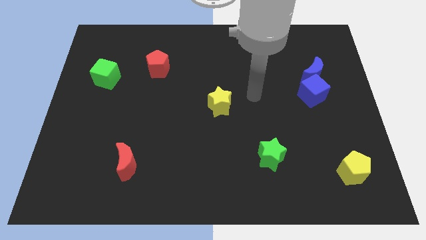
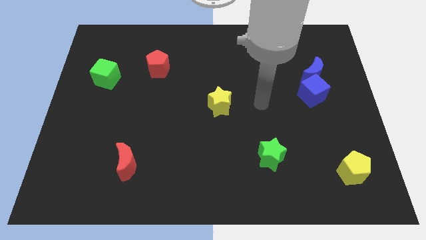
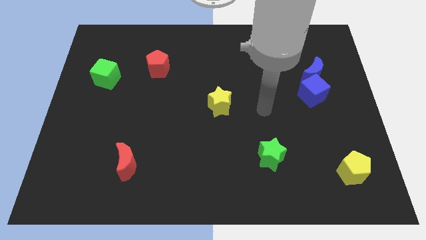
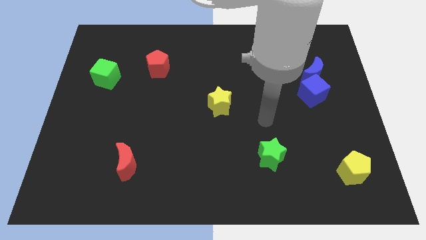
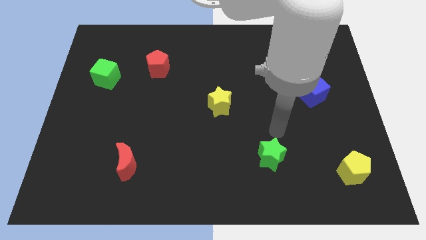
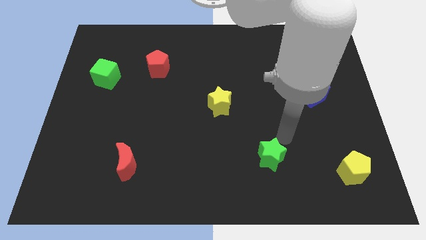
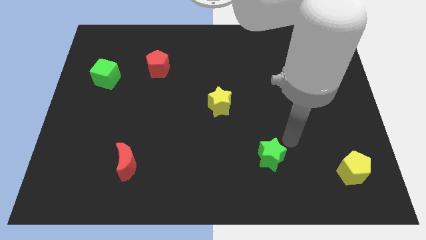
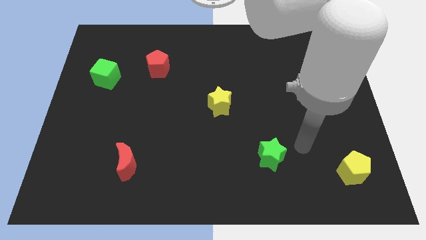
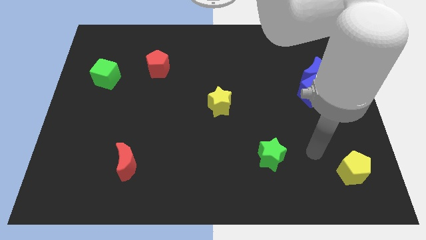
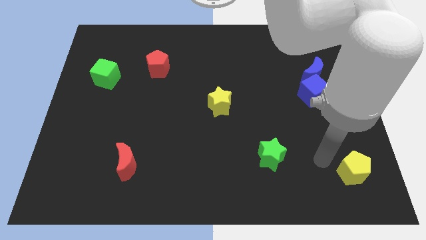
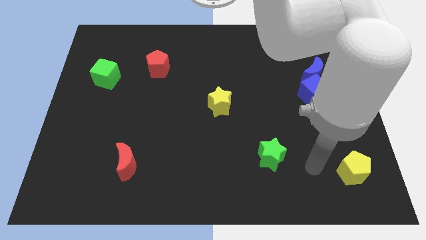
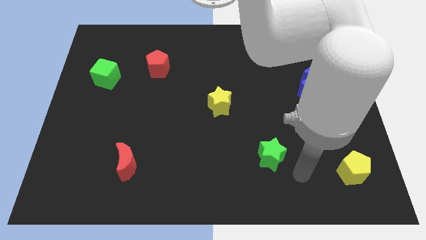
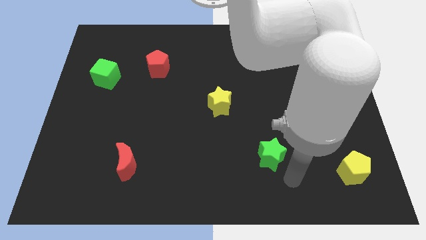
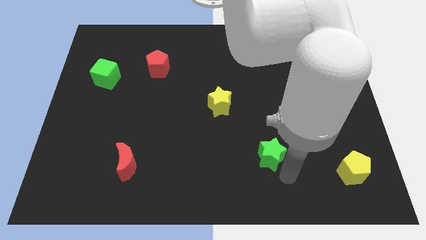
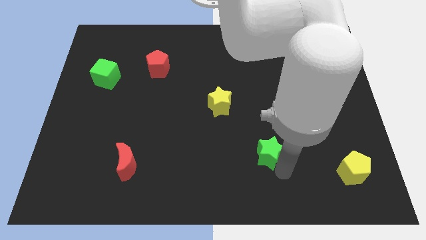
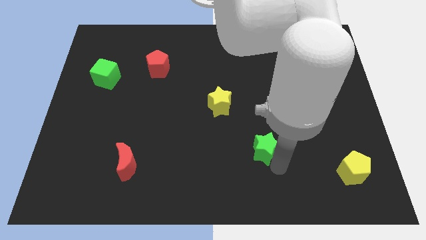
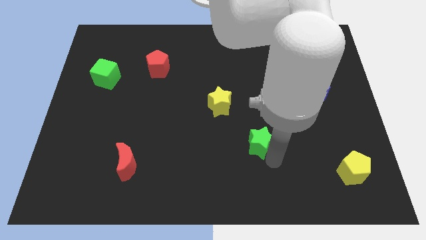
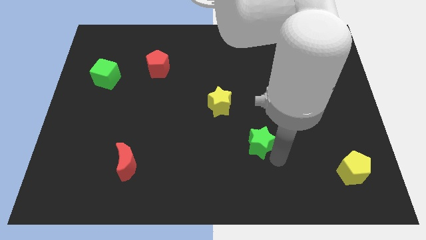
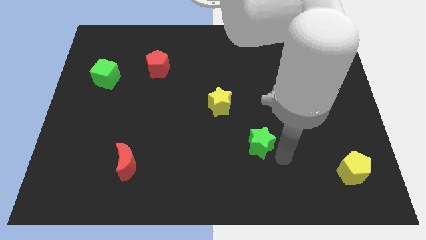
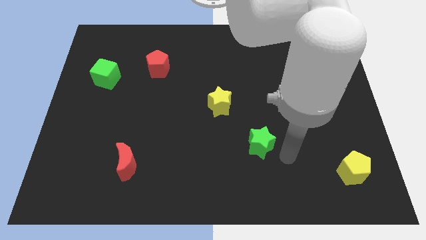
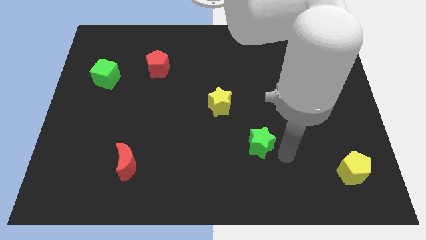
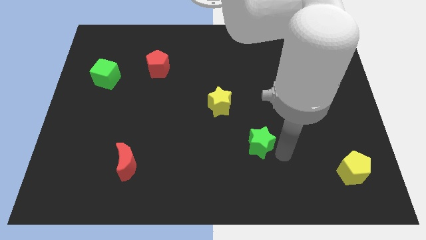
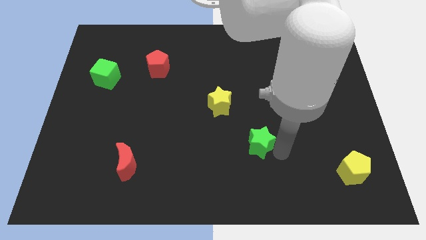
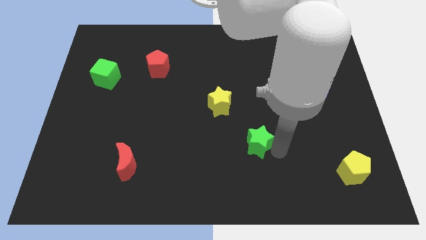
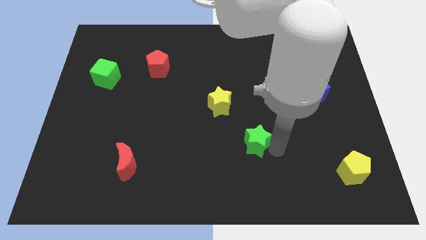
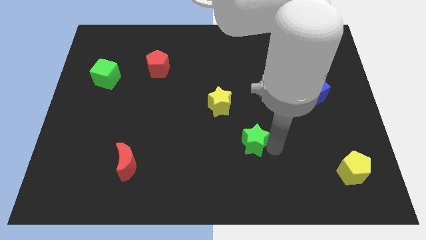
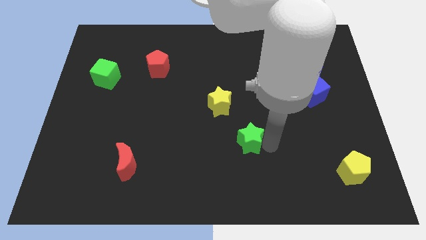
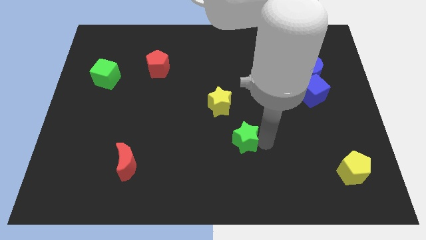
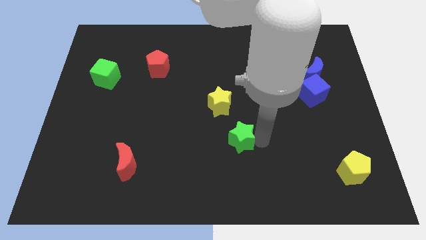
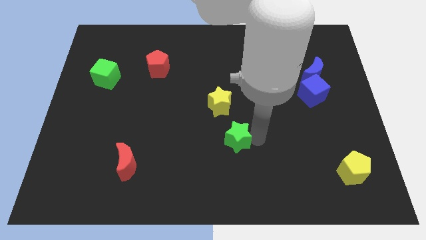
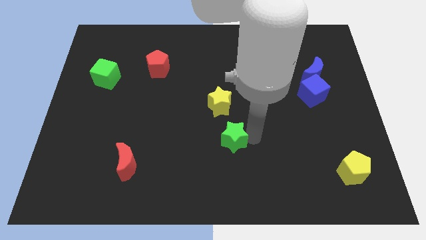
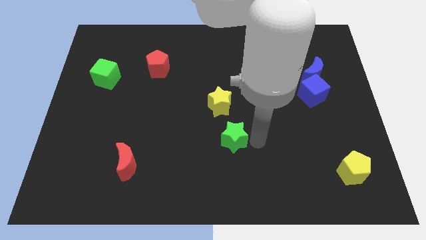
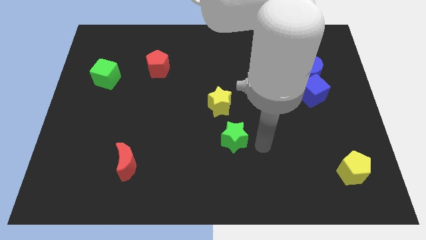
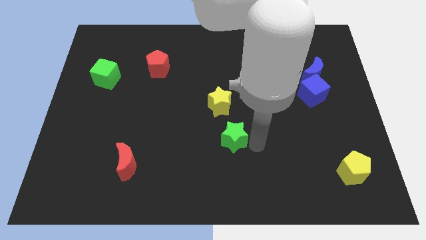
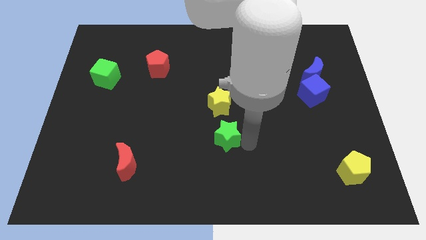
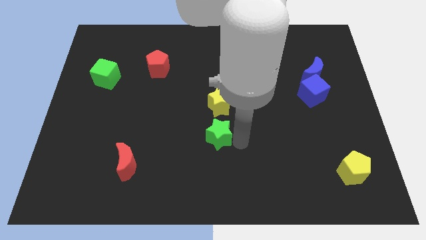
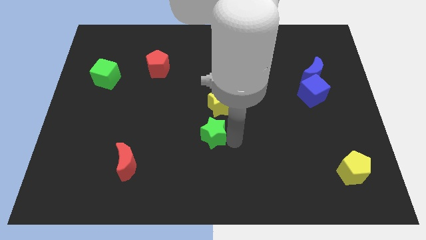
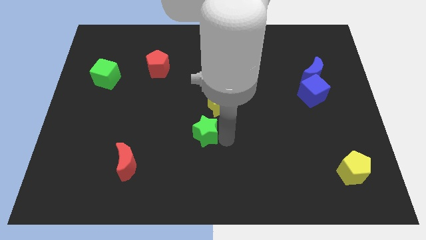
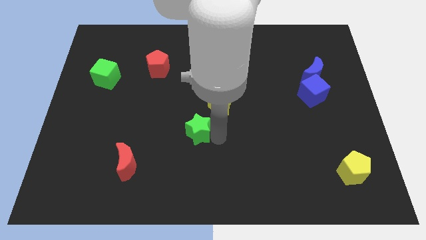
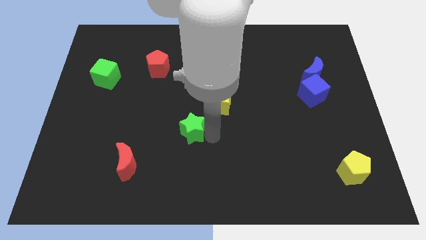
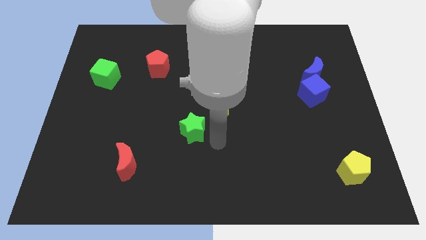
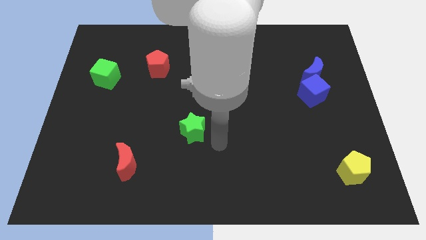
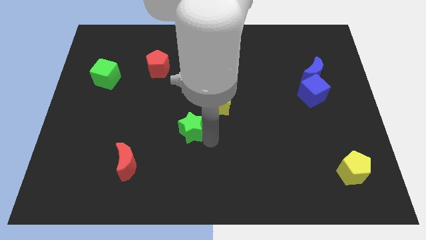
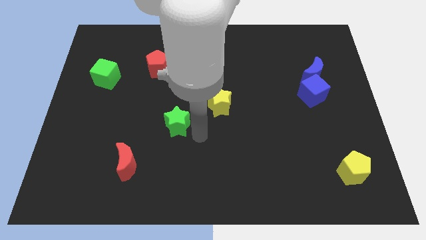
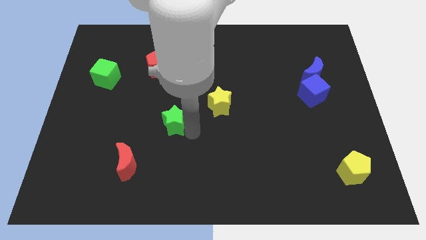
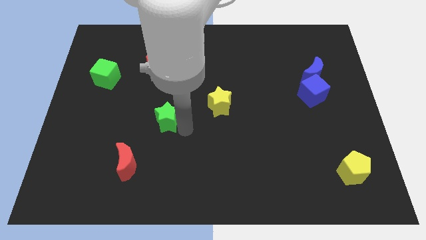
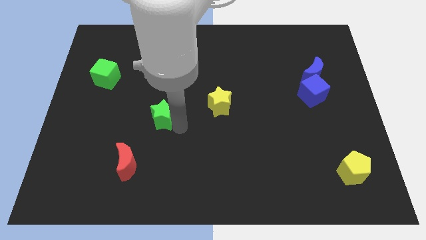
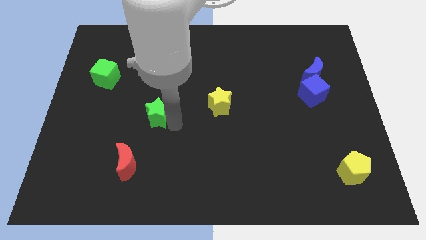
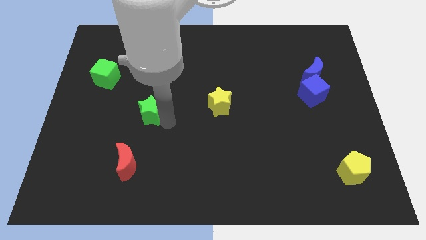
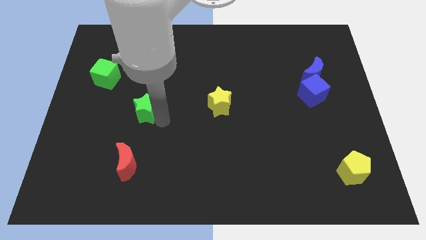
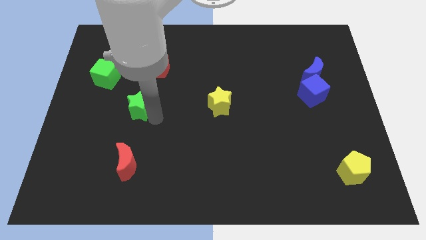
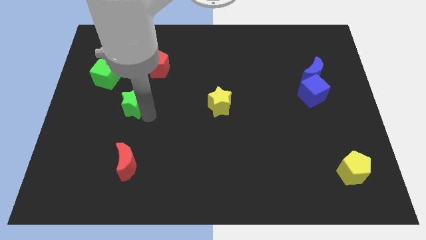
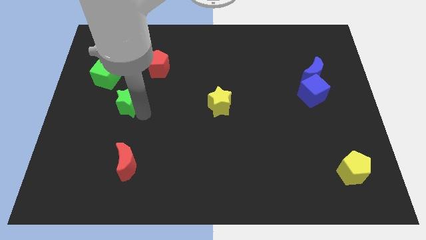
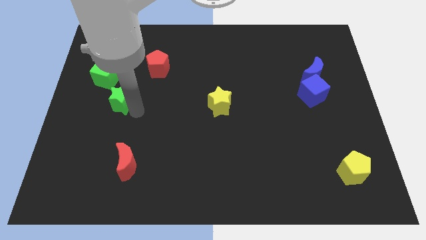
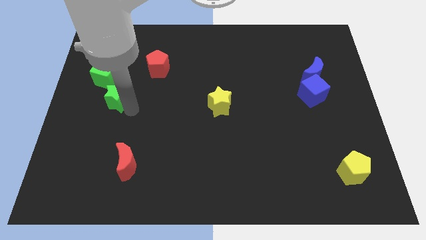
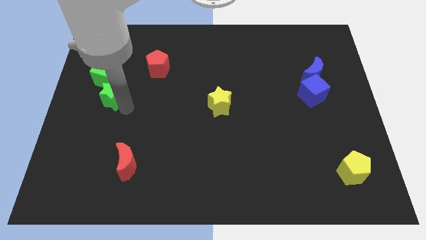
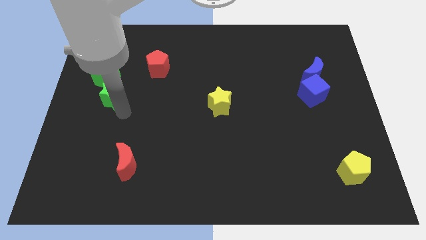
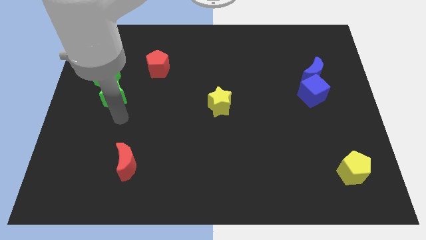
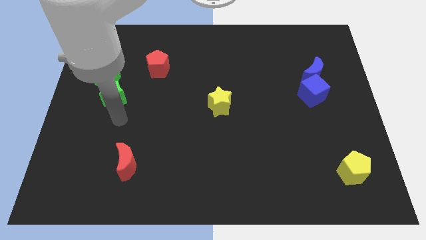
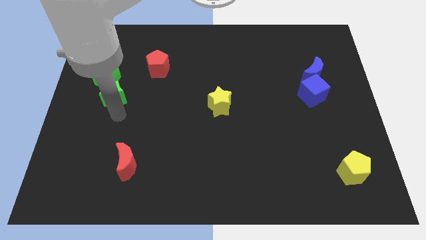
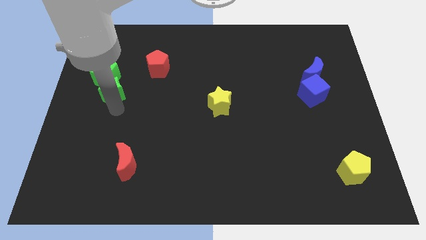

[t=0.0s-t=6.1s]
slide the green star next to the green cube

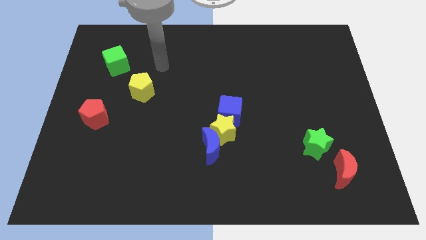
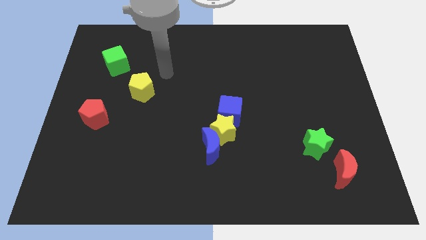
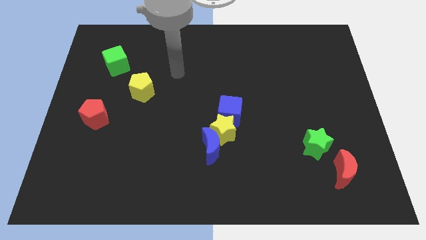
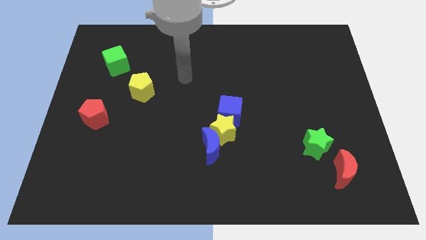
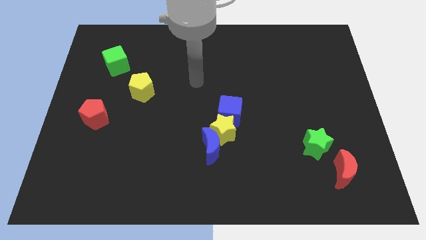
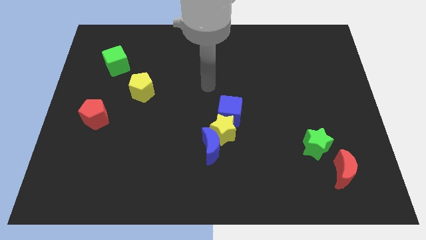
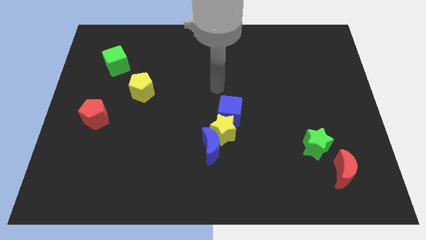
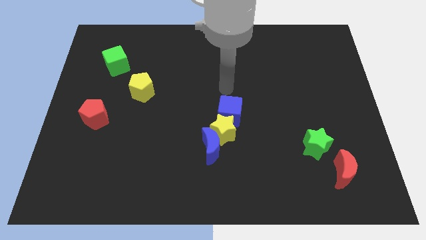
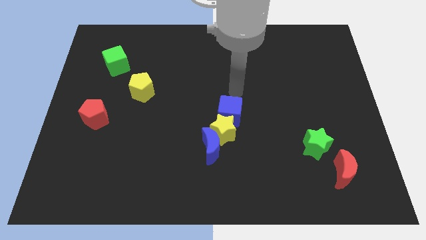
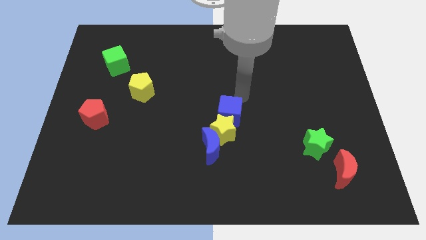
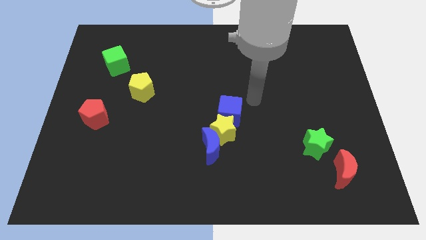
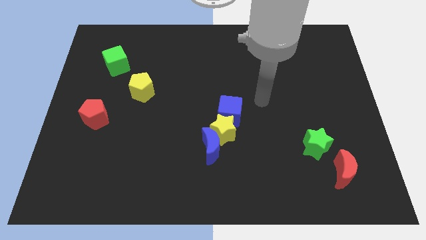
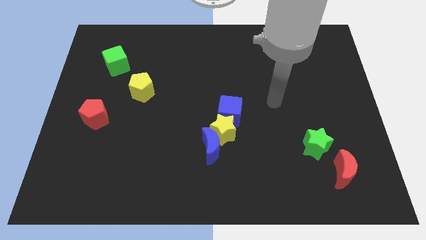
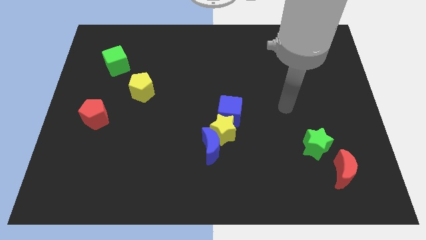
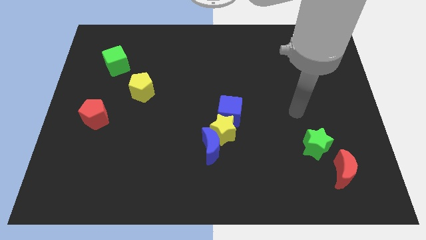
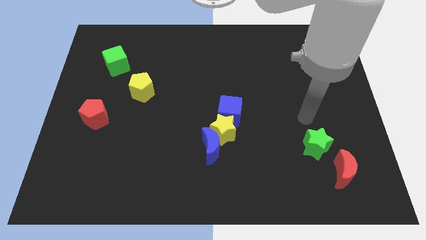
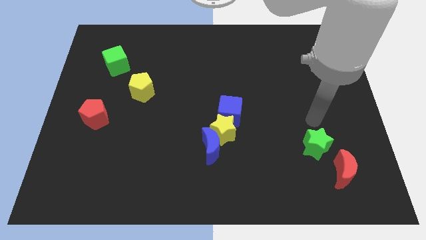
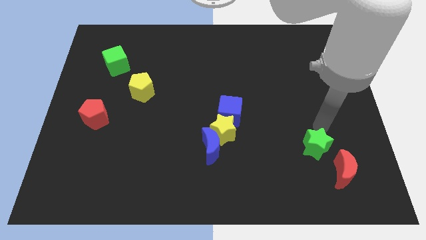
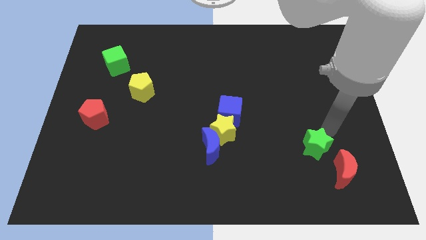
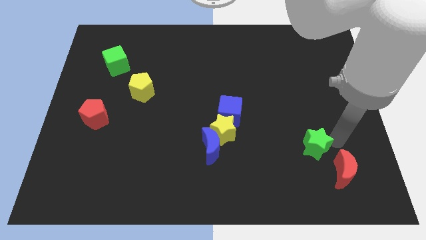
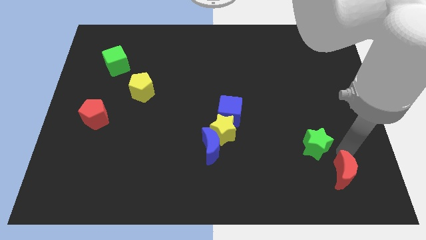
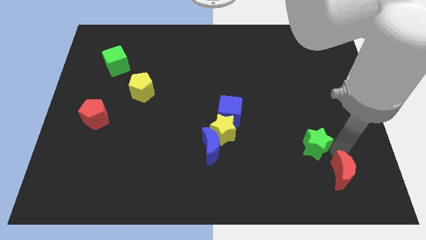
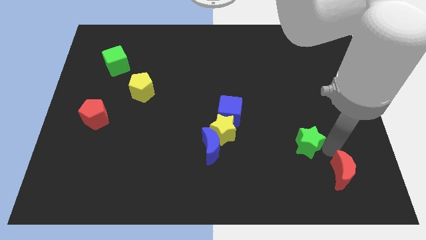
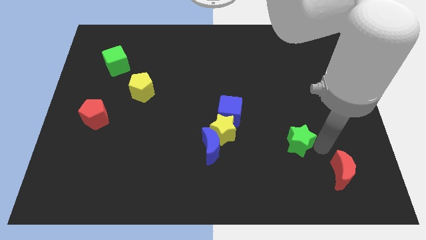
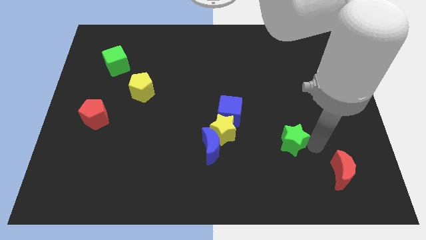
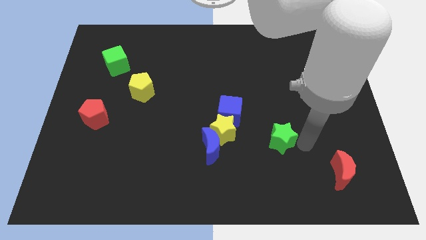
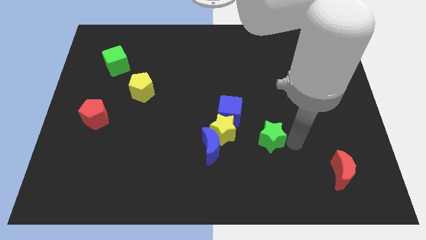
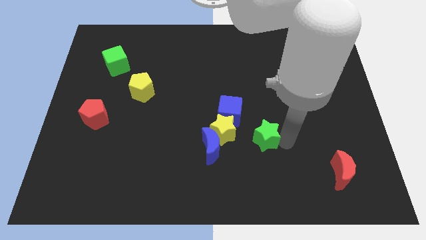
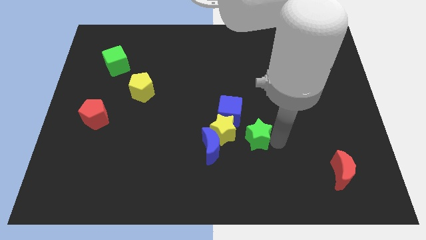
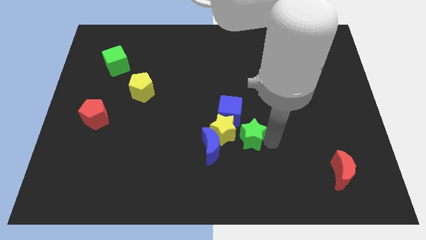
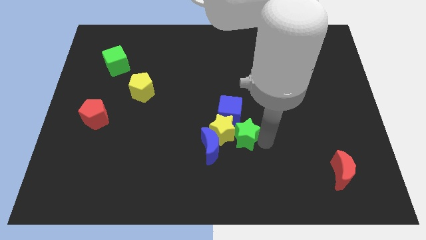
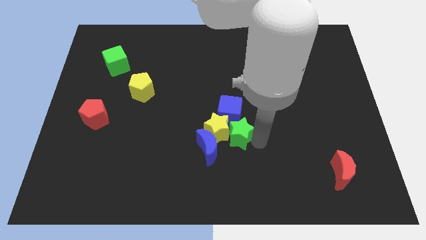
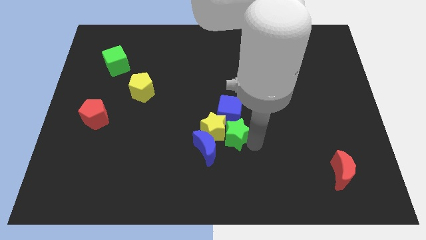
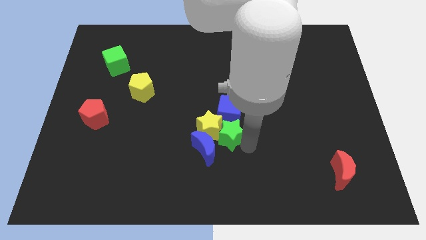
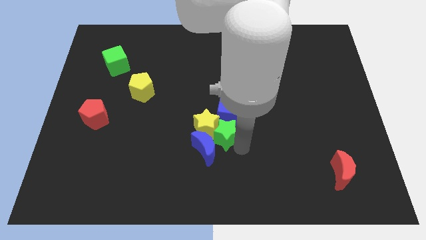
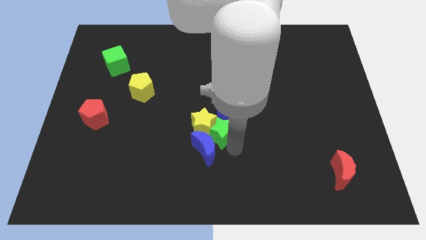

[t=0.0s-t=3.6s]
put the green star to the blue cube
